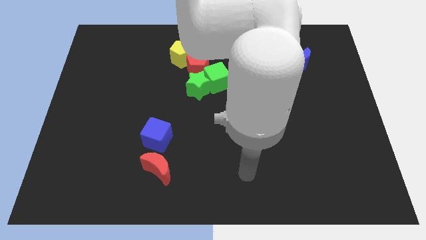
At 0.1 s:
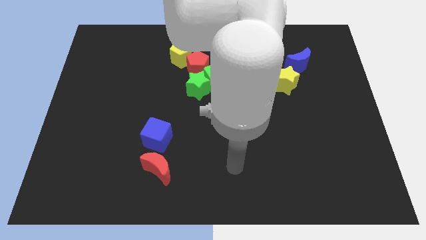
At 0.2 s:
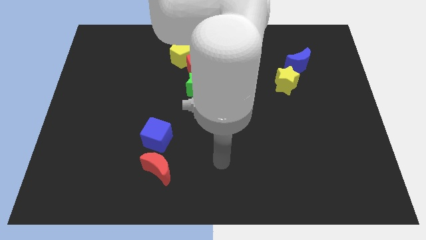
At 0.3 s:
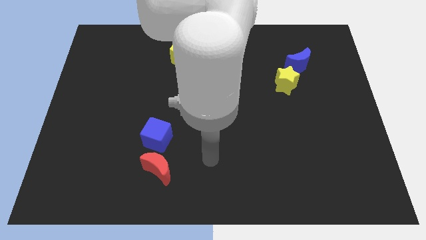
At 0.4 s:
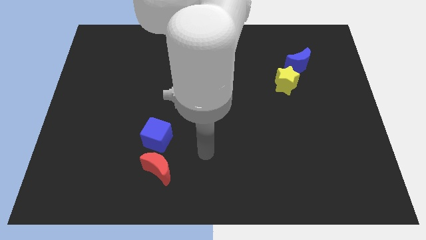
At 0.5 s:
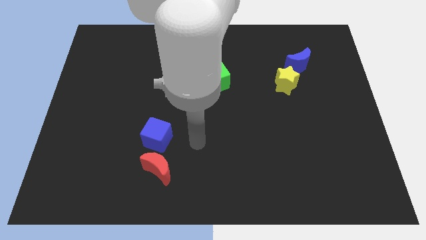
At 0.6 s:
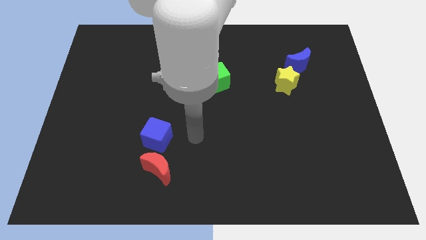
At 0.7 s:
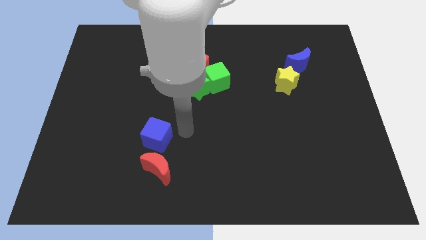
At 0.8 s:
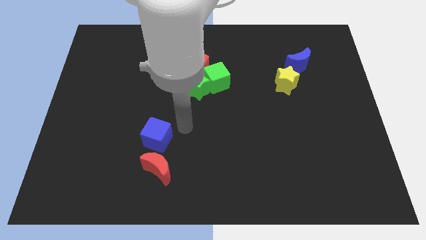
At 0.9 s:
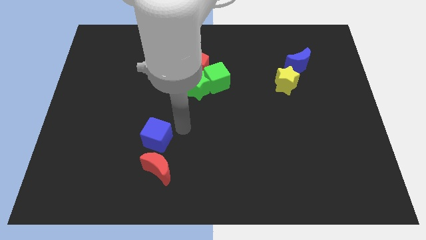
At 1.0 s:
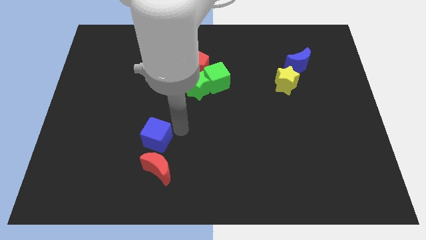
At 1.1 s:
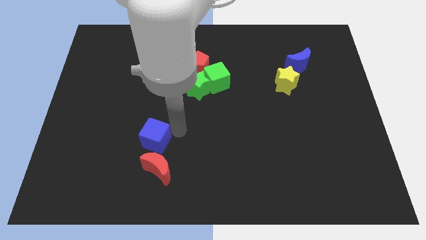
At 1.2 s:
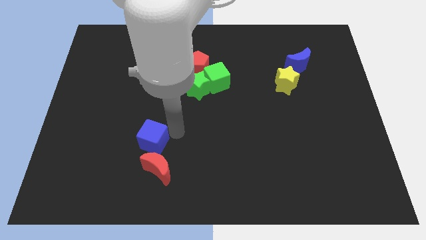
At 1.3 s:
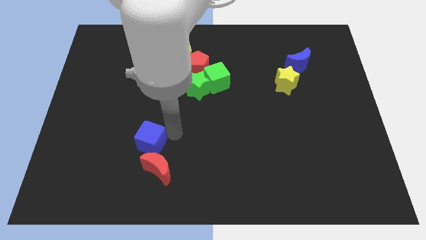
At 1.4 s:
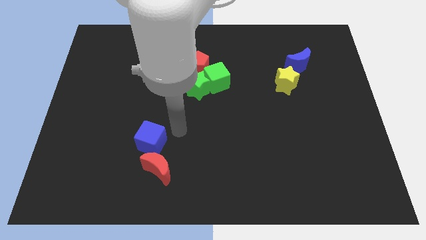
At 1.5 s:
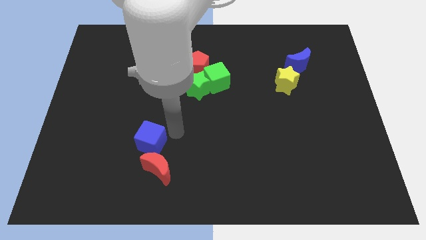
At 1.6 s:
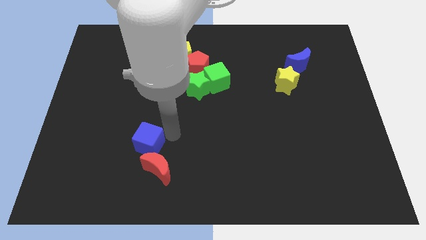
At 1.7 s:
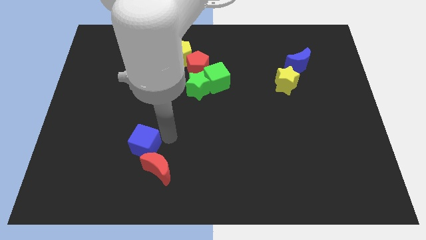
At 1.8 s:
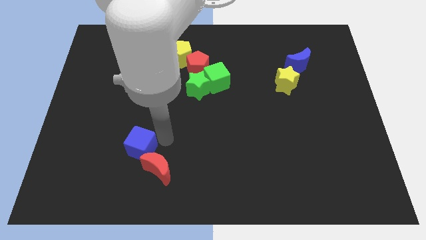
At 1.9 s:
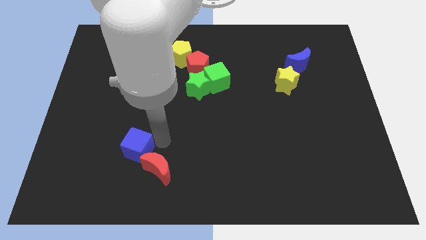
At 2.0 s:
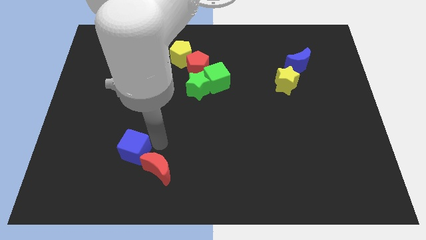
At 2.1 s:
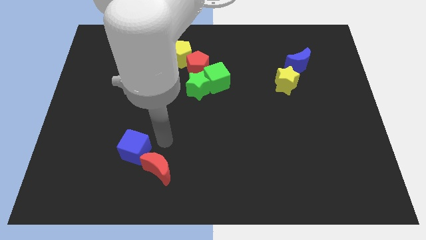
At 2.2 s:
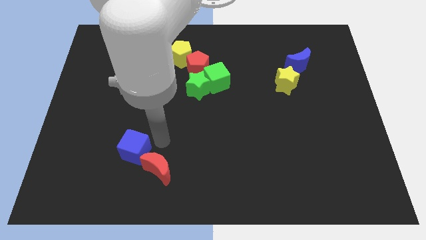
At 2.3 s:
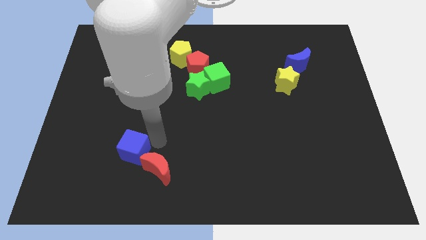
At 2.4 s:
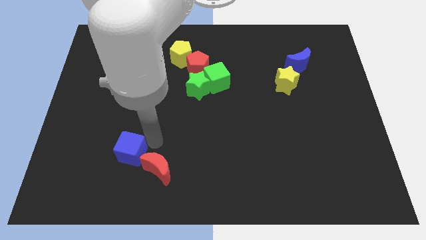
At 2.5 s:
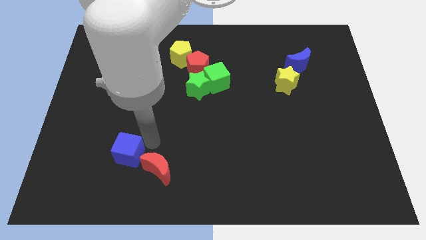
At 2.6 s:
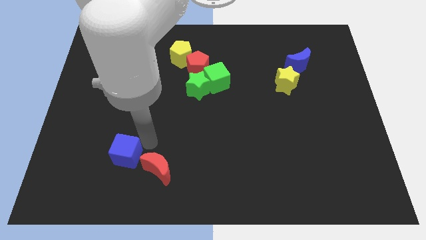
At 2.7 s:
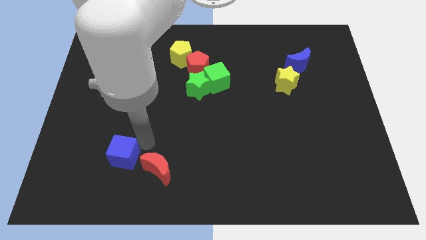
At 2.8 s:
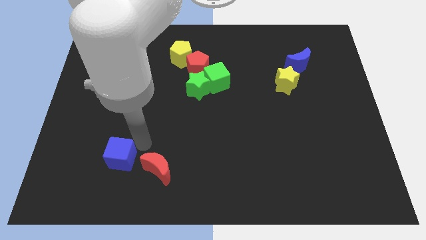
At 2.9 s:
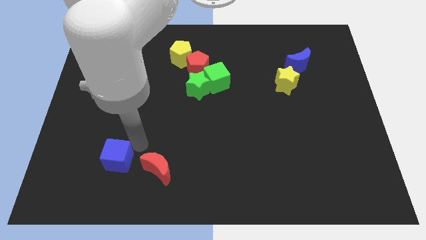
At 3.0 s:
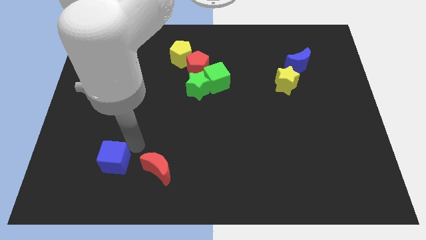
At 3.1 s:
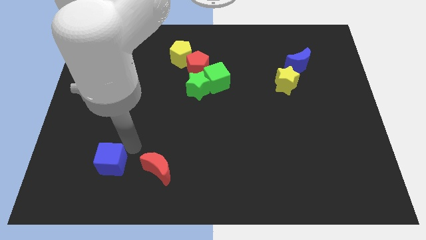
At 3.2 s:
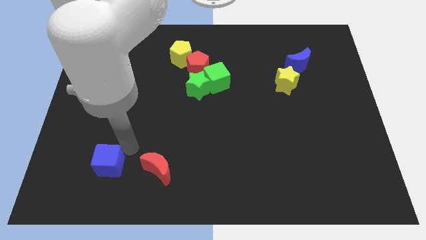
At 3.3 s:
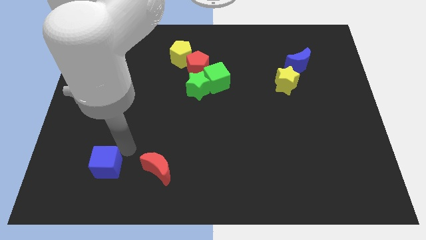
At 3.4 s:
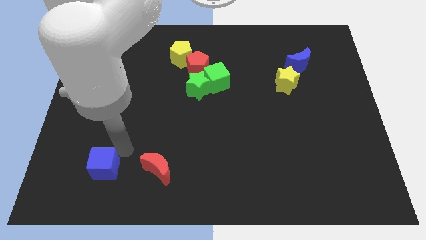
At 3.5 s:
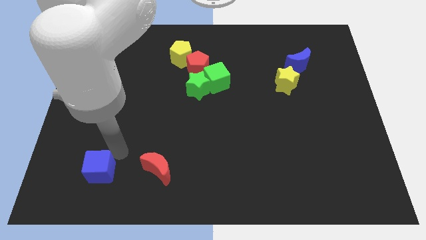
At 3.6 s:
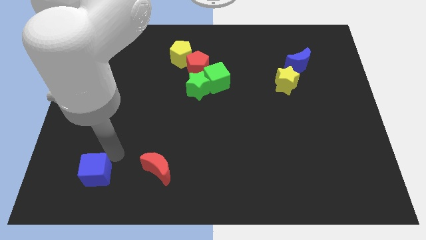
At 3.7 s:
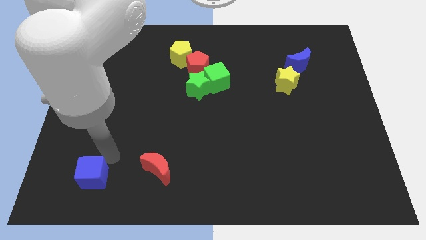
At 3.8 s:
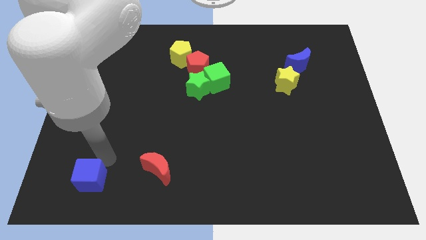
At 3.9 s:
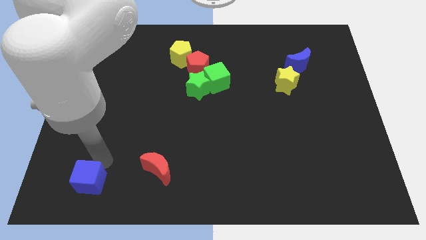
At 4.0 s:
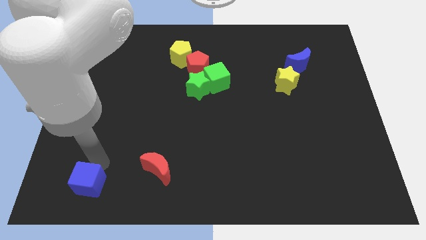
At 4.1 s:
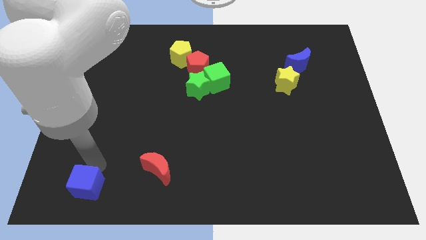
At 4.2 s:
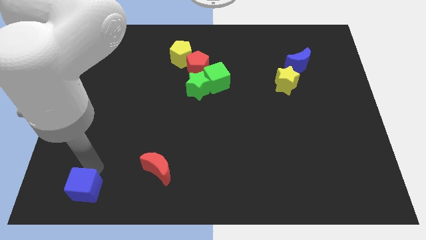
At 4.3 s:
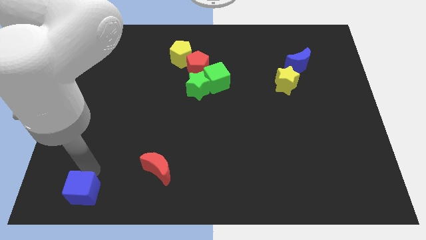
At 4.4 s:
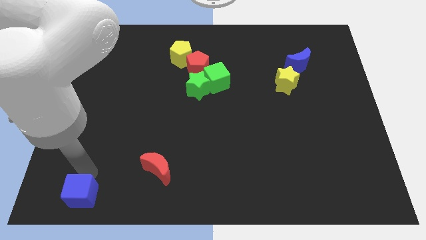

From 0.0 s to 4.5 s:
move the blue cube to the bottom left of the board

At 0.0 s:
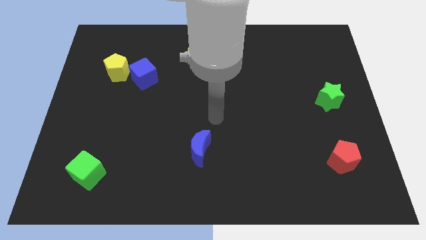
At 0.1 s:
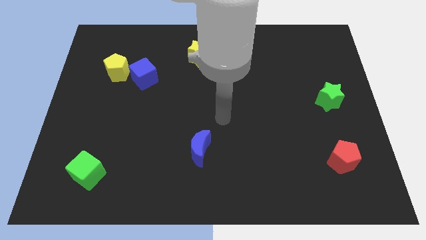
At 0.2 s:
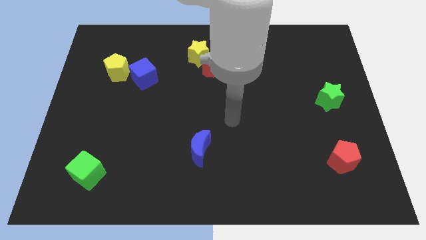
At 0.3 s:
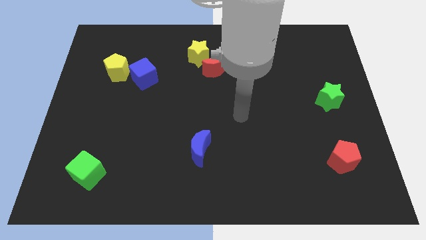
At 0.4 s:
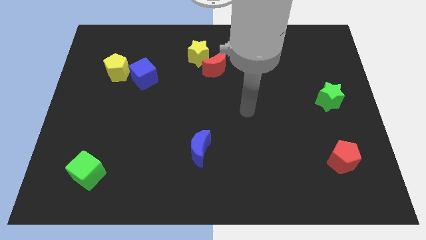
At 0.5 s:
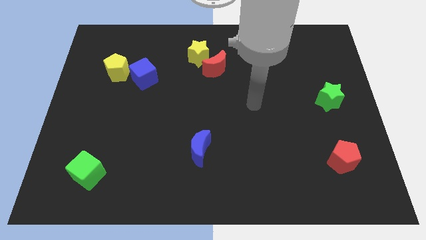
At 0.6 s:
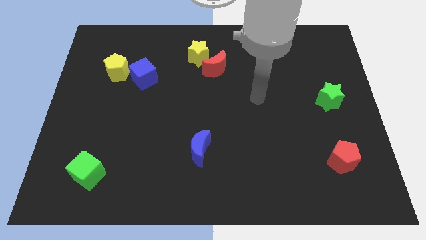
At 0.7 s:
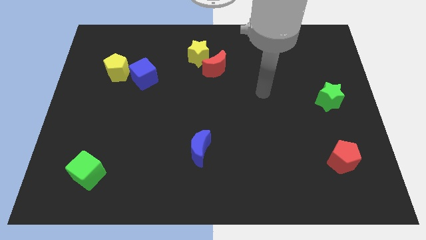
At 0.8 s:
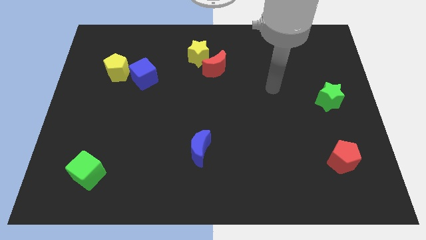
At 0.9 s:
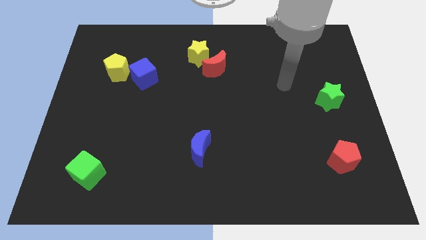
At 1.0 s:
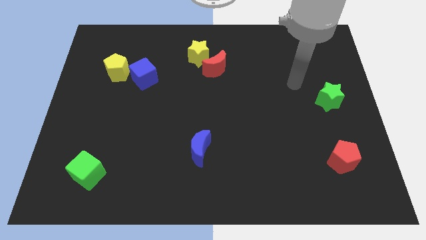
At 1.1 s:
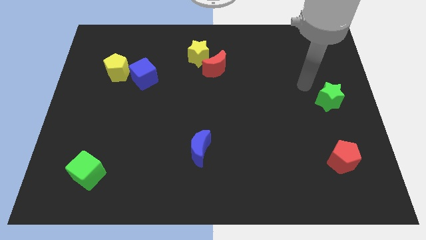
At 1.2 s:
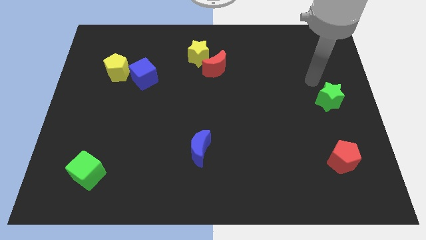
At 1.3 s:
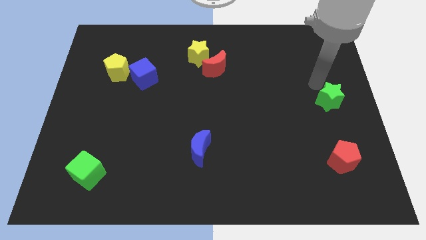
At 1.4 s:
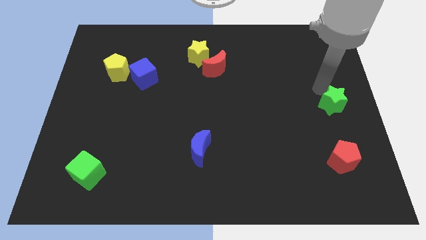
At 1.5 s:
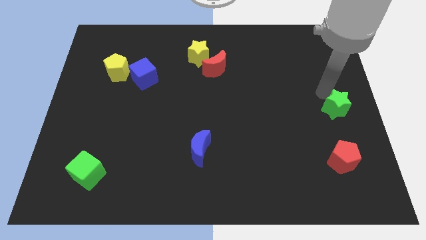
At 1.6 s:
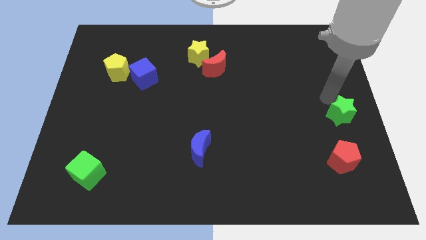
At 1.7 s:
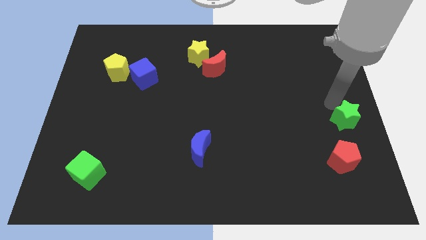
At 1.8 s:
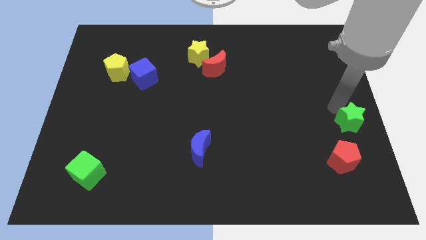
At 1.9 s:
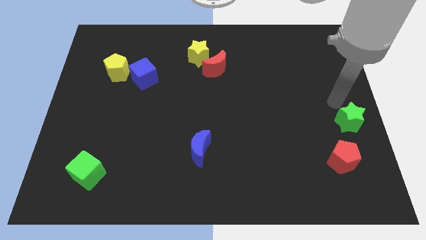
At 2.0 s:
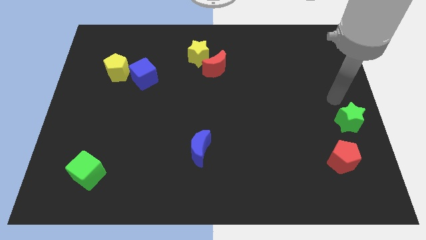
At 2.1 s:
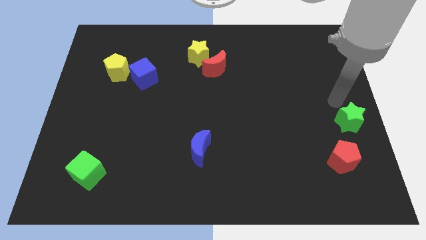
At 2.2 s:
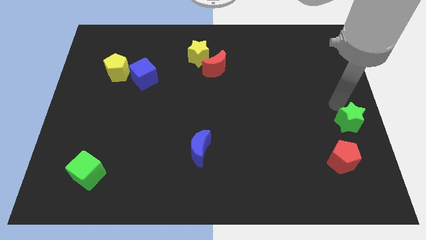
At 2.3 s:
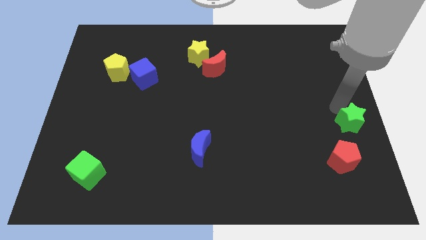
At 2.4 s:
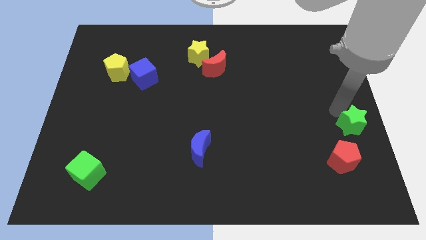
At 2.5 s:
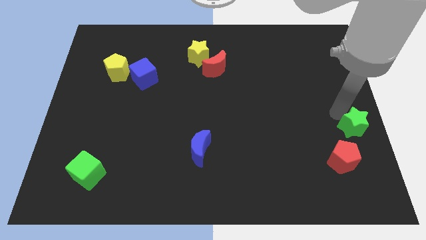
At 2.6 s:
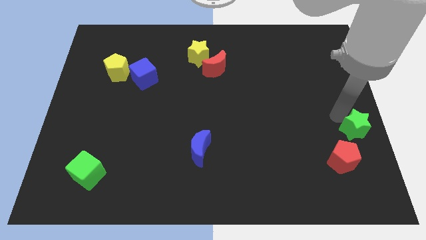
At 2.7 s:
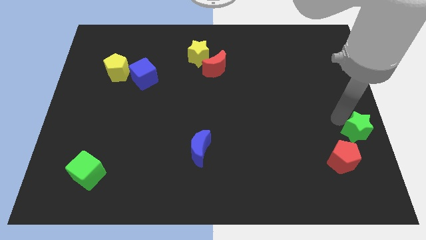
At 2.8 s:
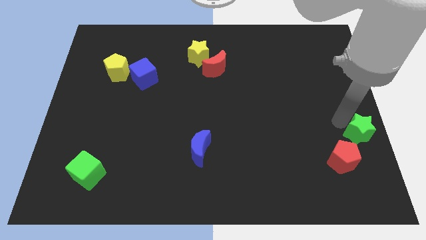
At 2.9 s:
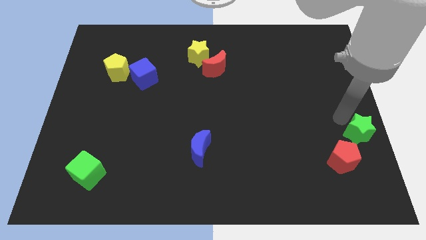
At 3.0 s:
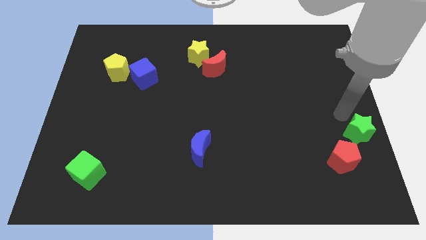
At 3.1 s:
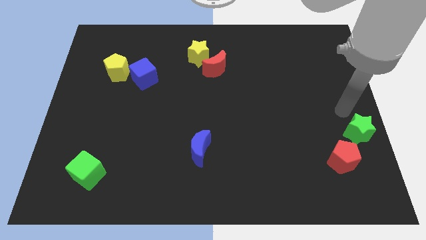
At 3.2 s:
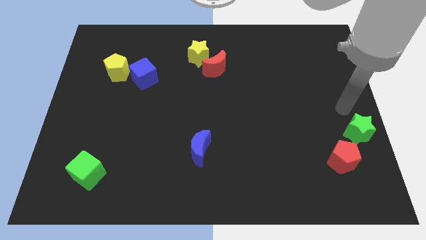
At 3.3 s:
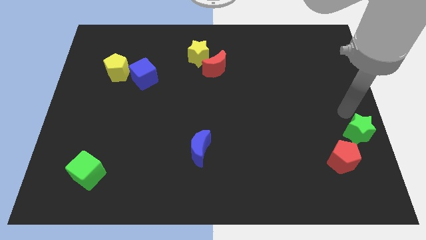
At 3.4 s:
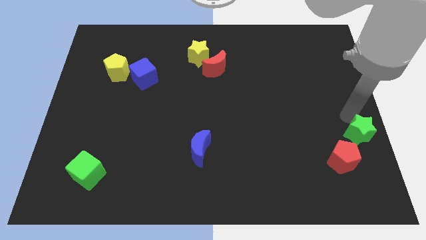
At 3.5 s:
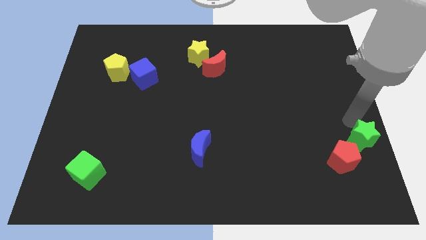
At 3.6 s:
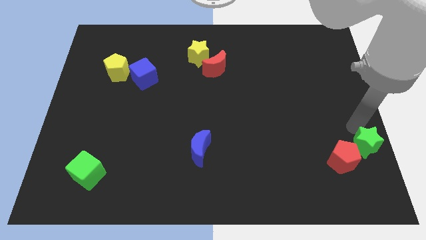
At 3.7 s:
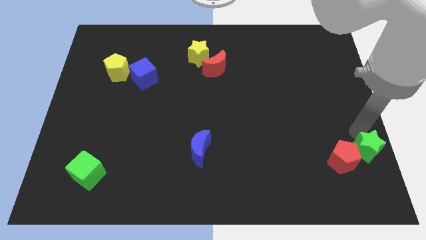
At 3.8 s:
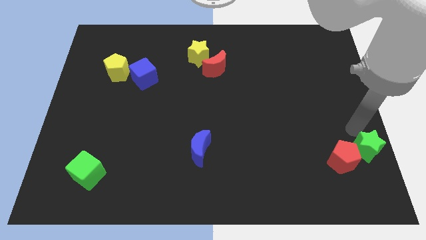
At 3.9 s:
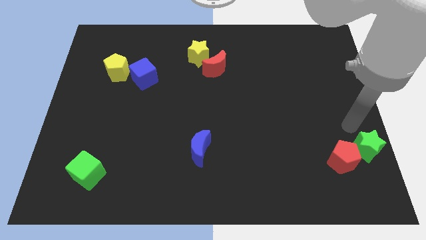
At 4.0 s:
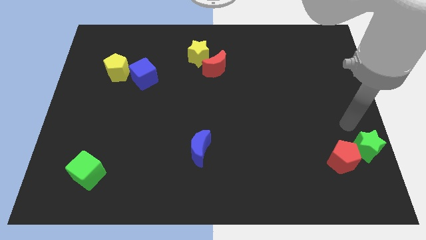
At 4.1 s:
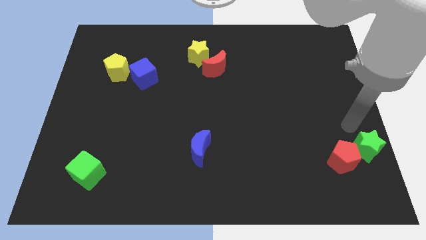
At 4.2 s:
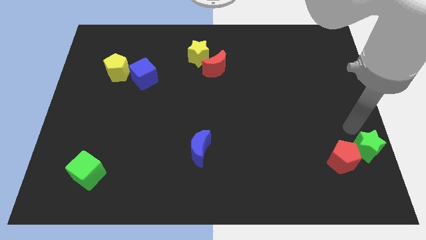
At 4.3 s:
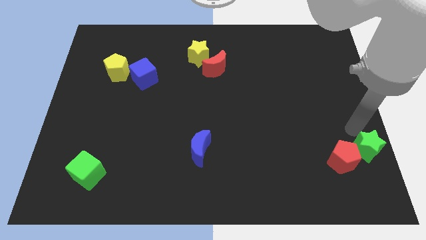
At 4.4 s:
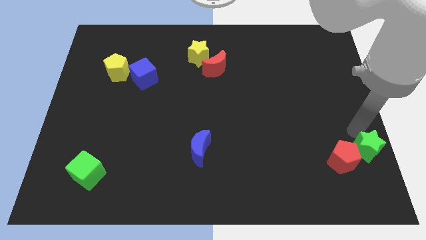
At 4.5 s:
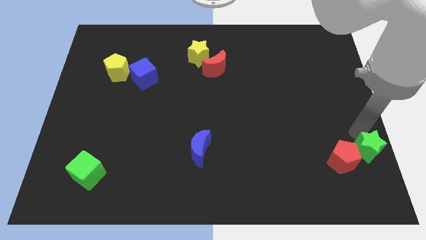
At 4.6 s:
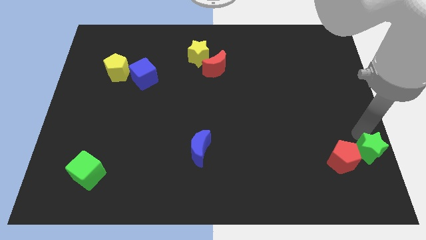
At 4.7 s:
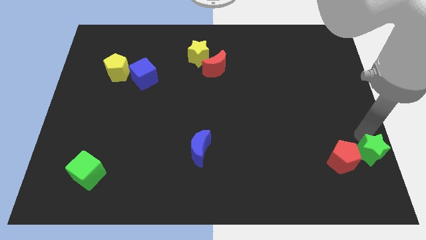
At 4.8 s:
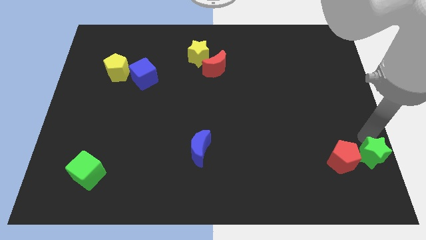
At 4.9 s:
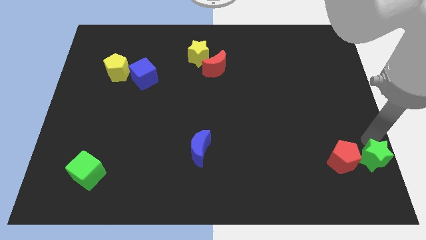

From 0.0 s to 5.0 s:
move the green star to the bottom right
